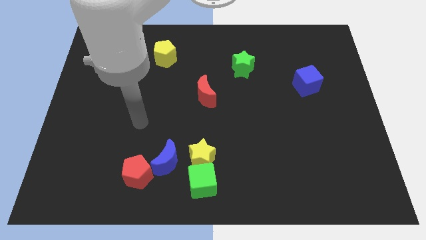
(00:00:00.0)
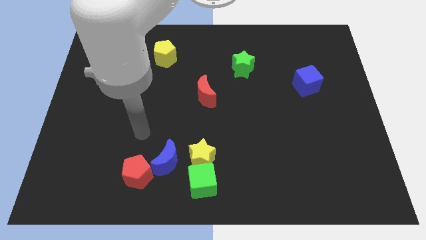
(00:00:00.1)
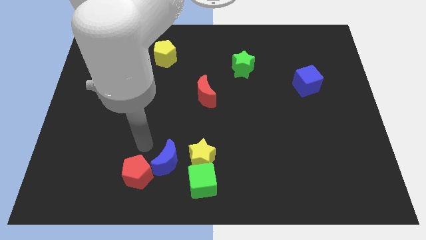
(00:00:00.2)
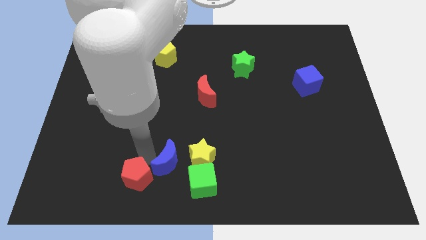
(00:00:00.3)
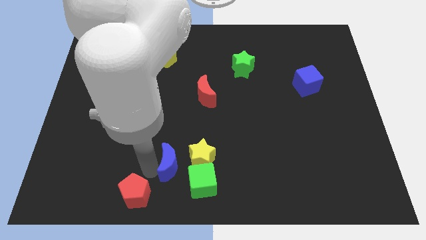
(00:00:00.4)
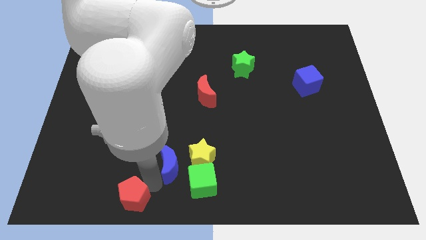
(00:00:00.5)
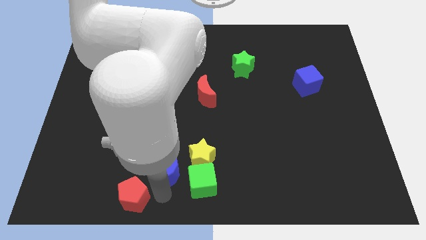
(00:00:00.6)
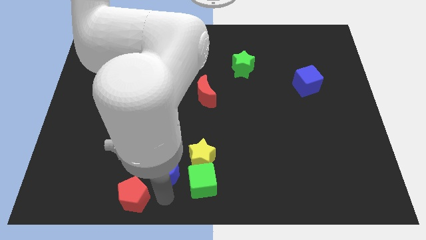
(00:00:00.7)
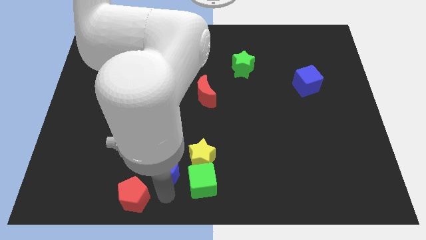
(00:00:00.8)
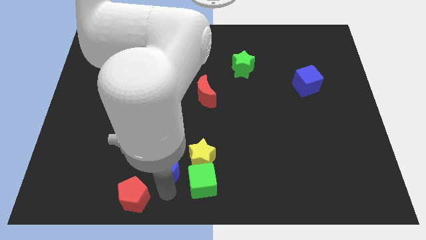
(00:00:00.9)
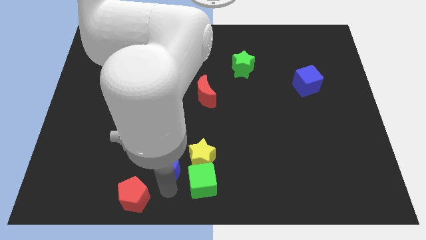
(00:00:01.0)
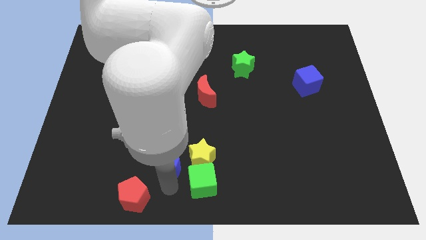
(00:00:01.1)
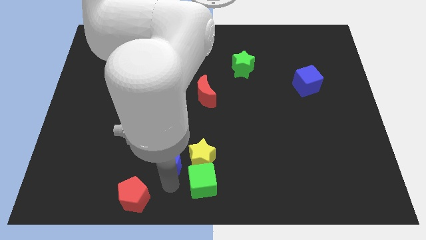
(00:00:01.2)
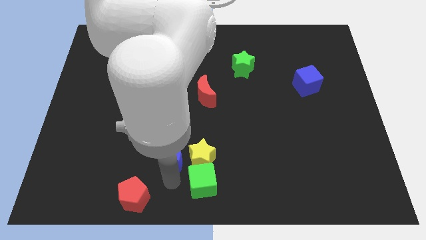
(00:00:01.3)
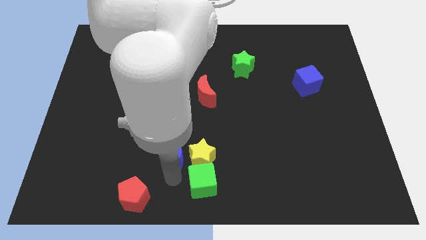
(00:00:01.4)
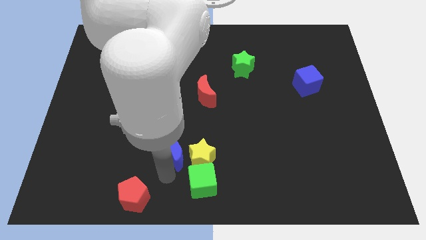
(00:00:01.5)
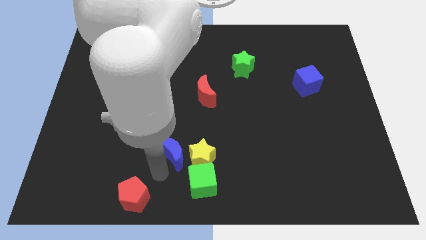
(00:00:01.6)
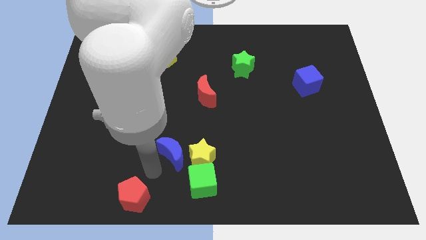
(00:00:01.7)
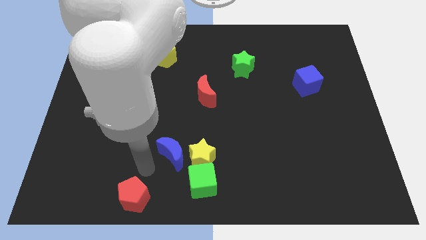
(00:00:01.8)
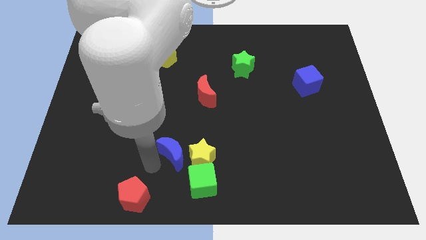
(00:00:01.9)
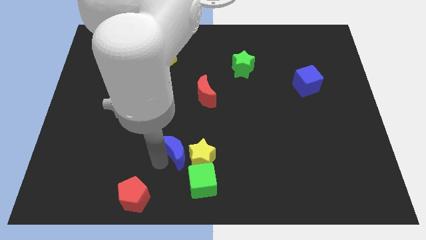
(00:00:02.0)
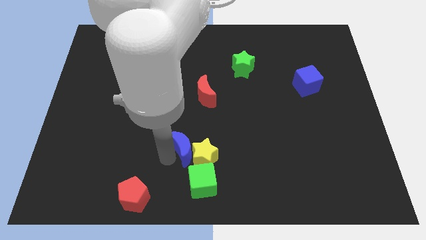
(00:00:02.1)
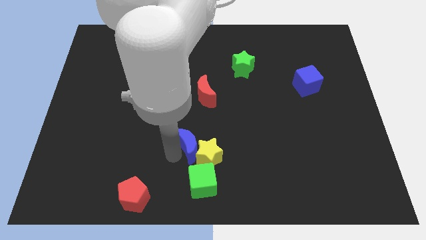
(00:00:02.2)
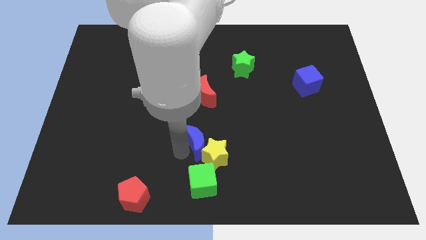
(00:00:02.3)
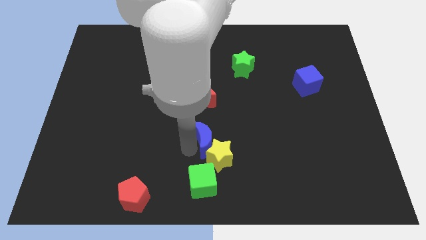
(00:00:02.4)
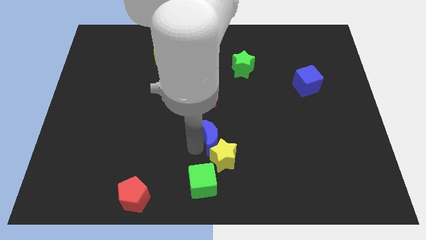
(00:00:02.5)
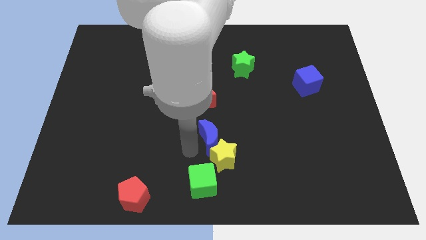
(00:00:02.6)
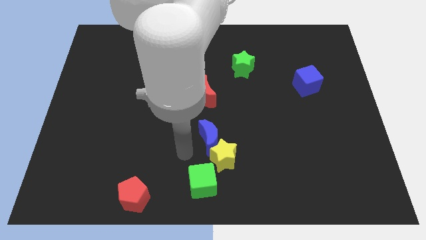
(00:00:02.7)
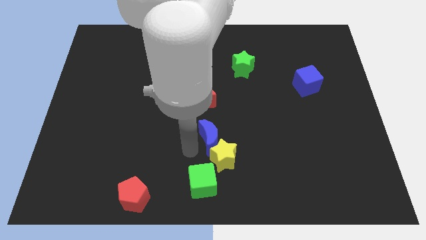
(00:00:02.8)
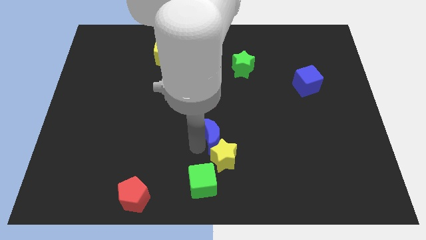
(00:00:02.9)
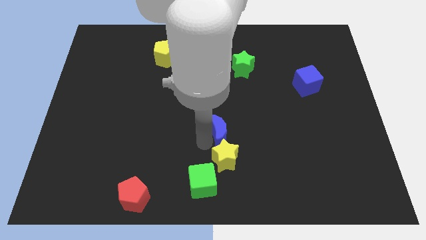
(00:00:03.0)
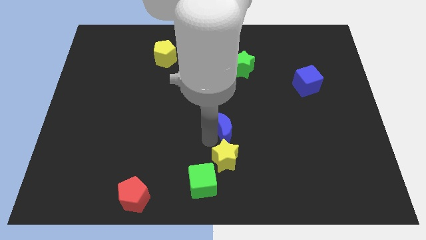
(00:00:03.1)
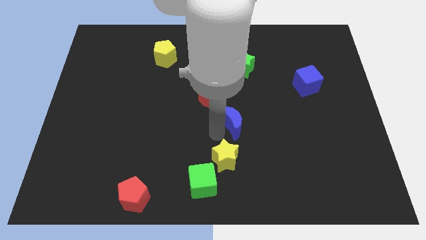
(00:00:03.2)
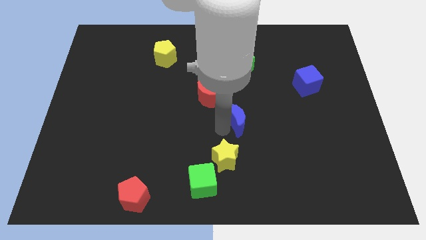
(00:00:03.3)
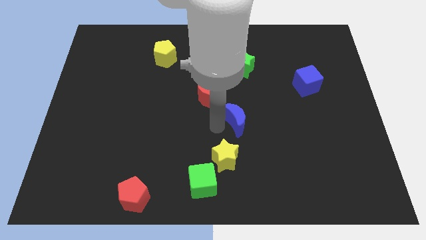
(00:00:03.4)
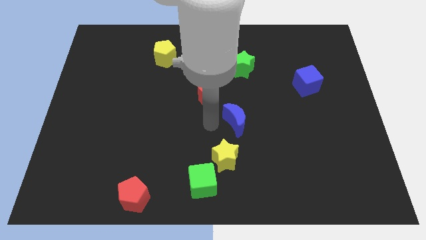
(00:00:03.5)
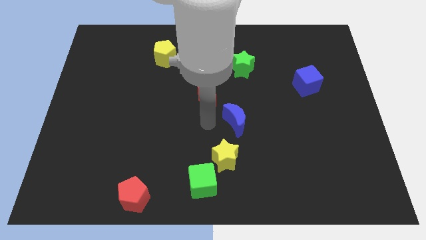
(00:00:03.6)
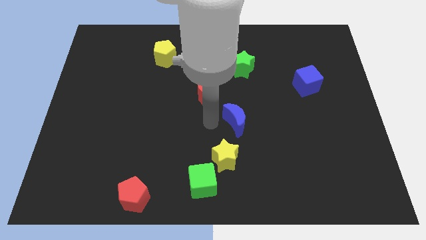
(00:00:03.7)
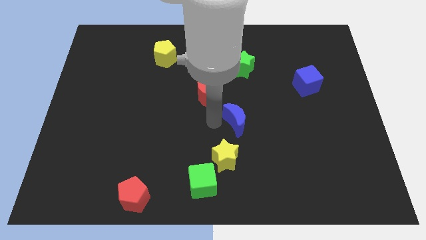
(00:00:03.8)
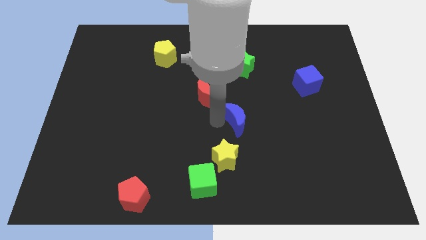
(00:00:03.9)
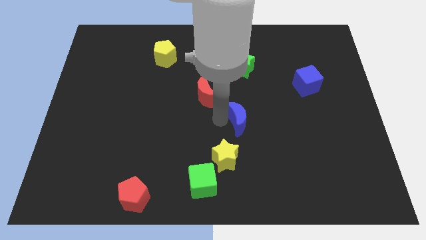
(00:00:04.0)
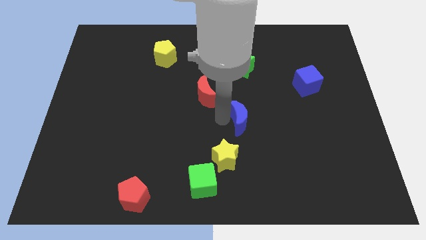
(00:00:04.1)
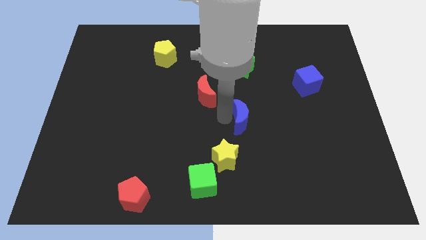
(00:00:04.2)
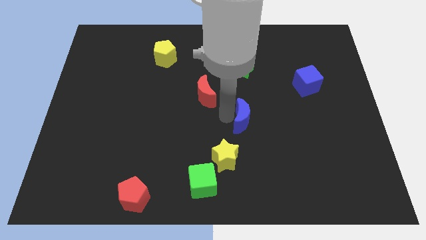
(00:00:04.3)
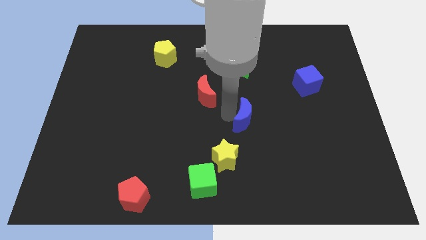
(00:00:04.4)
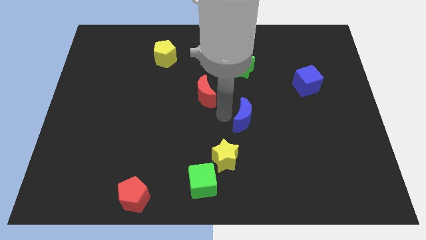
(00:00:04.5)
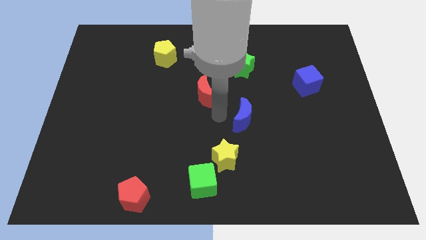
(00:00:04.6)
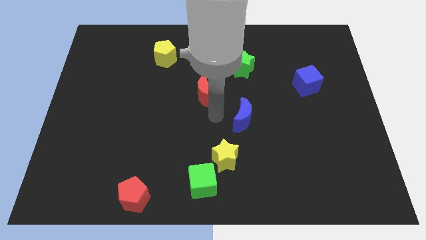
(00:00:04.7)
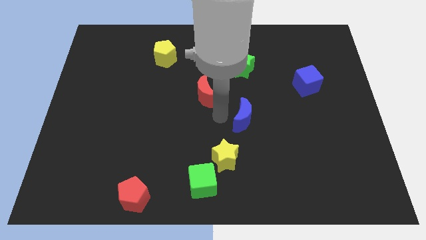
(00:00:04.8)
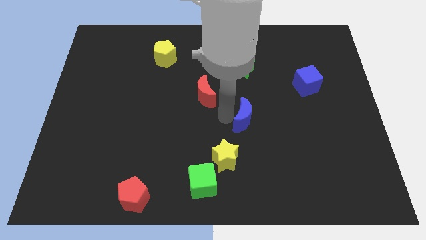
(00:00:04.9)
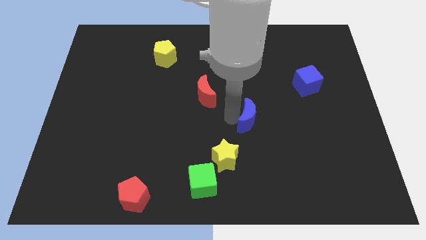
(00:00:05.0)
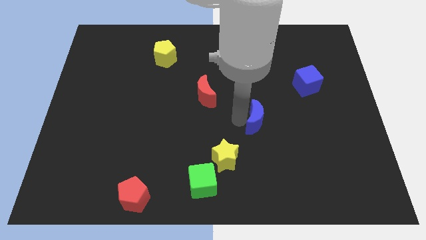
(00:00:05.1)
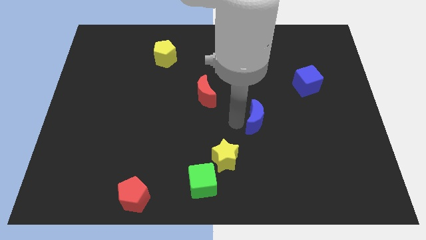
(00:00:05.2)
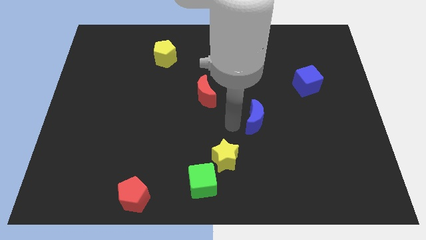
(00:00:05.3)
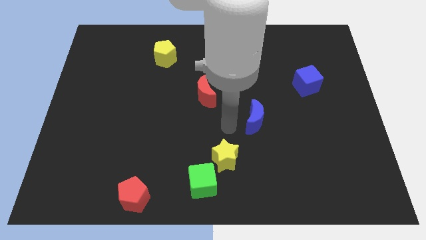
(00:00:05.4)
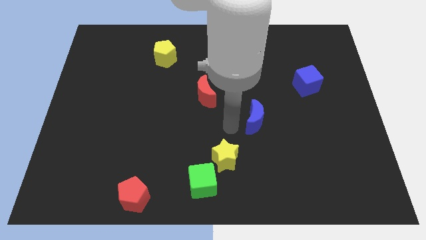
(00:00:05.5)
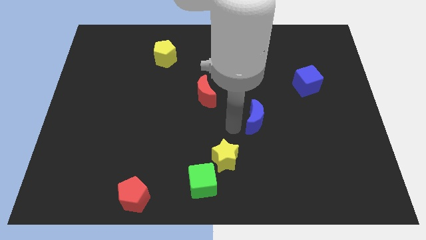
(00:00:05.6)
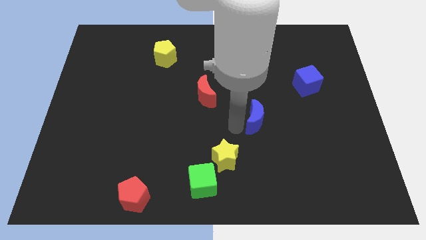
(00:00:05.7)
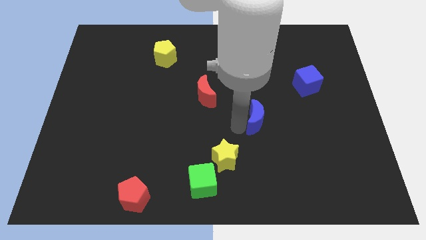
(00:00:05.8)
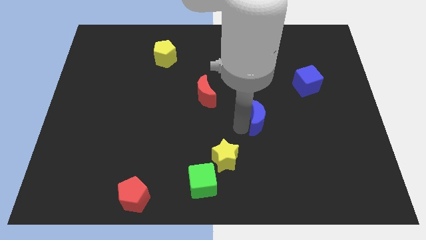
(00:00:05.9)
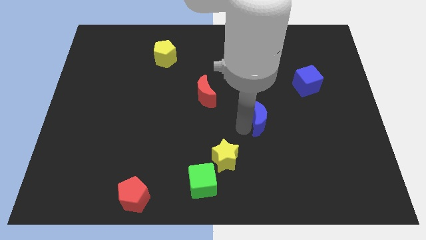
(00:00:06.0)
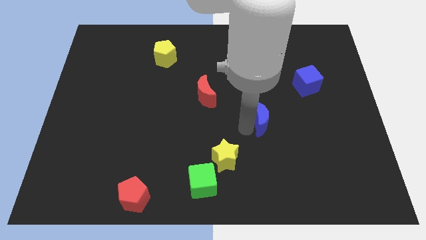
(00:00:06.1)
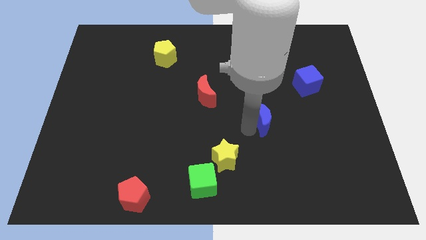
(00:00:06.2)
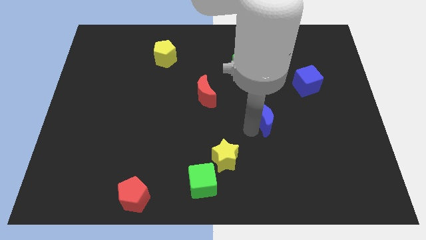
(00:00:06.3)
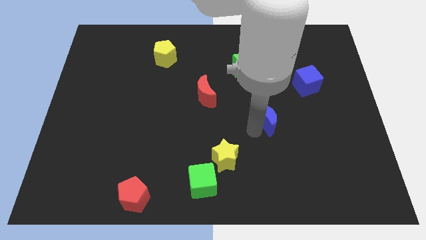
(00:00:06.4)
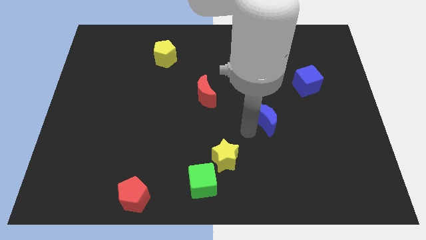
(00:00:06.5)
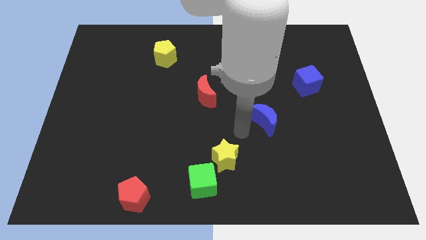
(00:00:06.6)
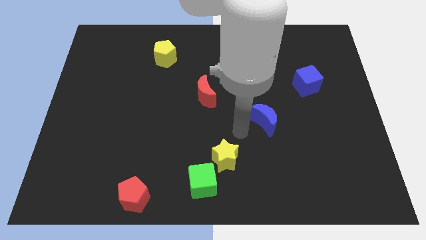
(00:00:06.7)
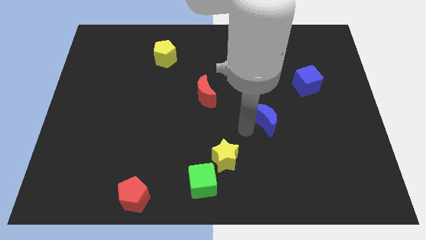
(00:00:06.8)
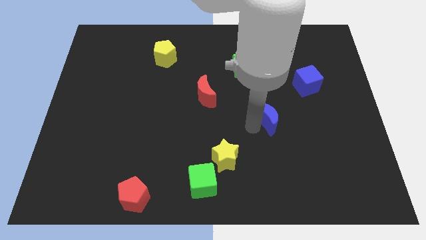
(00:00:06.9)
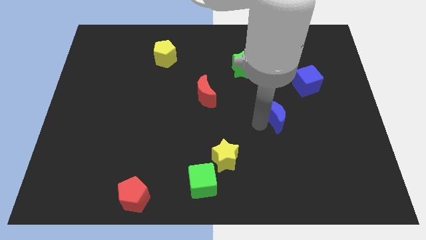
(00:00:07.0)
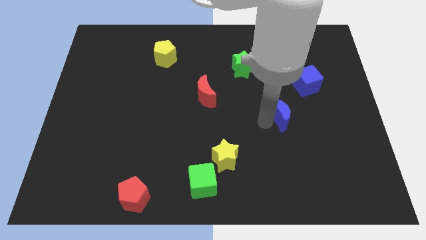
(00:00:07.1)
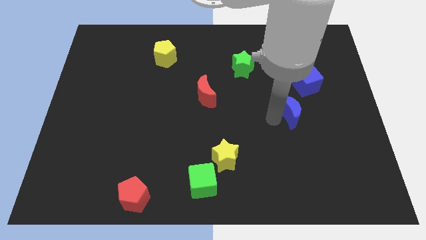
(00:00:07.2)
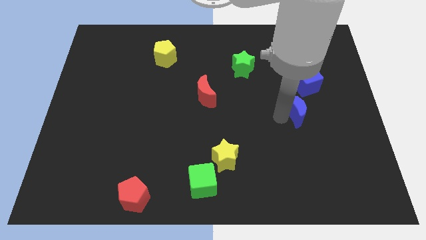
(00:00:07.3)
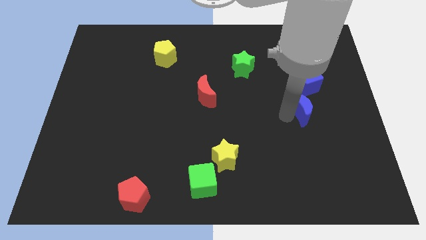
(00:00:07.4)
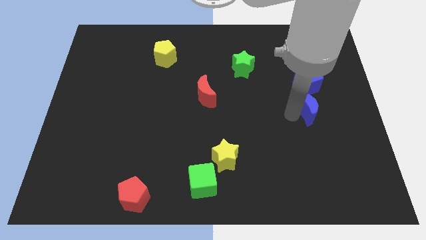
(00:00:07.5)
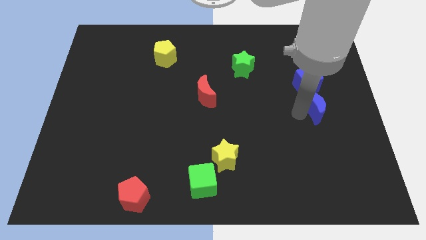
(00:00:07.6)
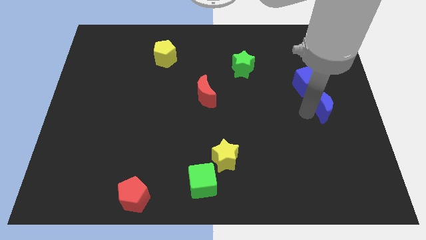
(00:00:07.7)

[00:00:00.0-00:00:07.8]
push the blue moon to the bottom right of the blue cube
